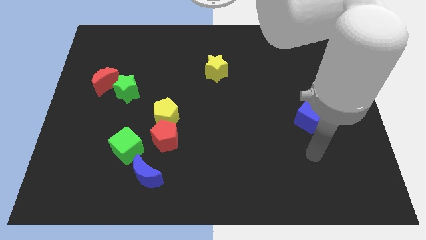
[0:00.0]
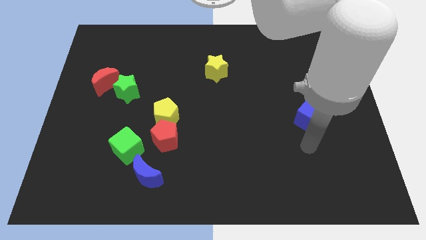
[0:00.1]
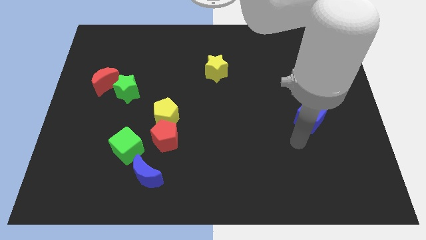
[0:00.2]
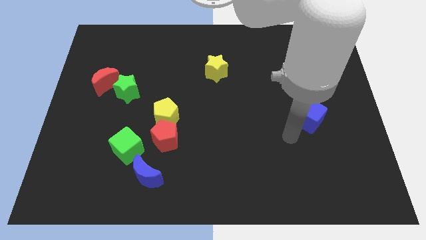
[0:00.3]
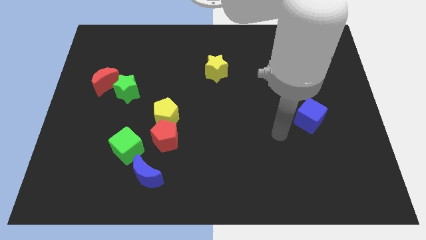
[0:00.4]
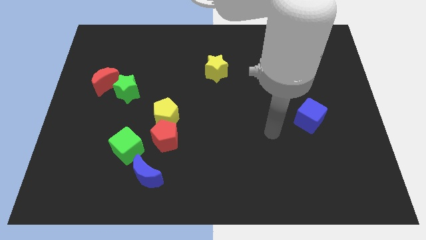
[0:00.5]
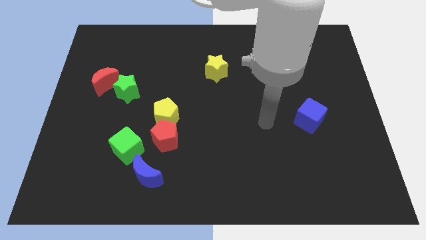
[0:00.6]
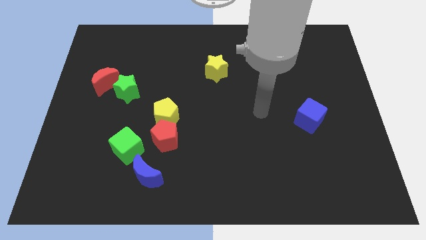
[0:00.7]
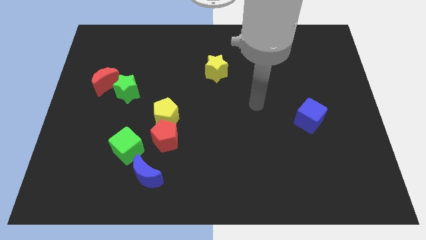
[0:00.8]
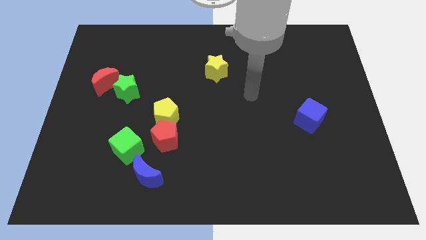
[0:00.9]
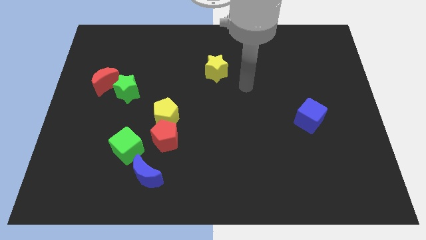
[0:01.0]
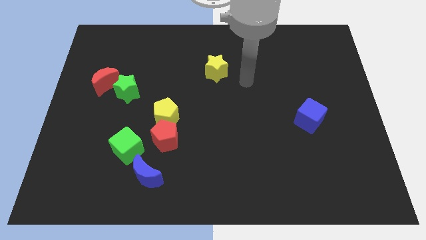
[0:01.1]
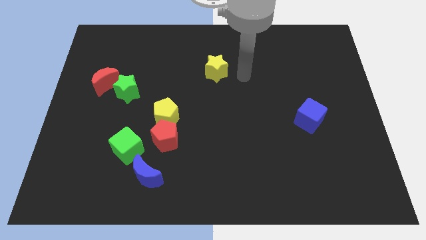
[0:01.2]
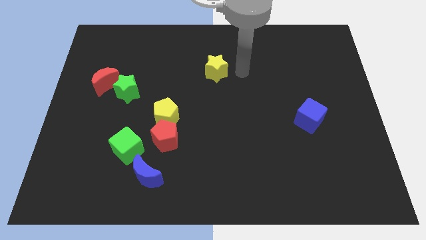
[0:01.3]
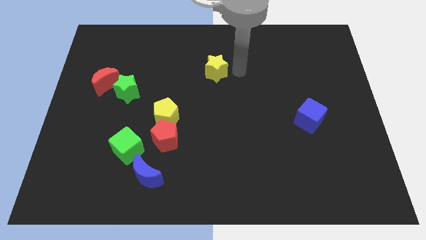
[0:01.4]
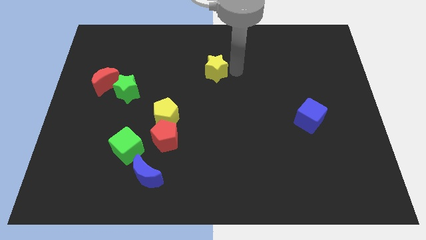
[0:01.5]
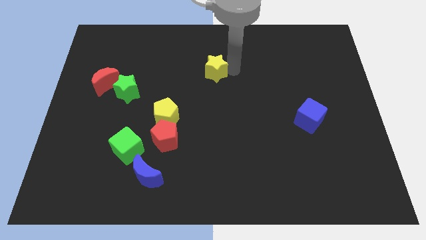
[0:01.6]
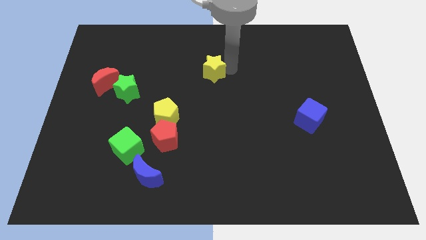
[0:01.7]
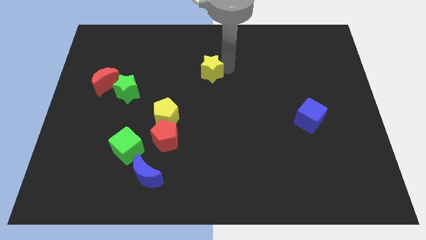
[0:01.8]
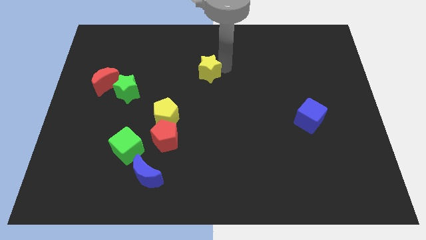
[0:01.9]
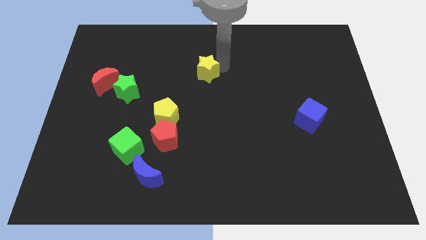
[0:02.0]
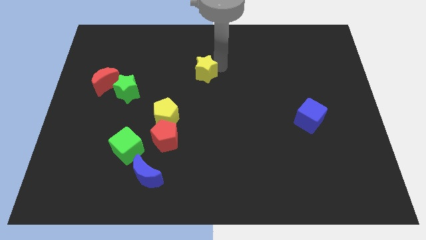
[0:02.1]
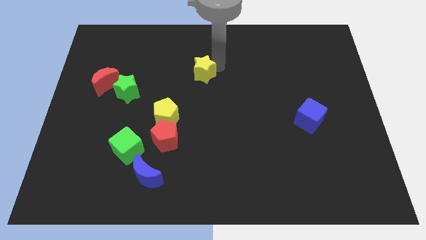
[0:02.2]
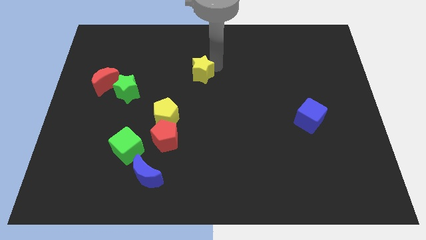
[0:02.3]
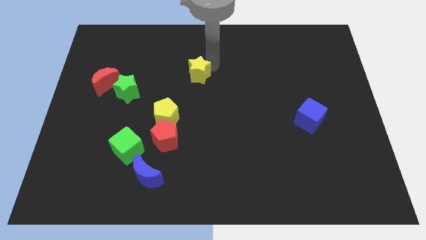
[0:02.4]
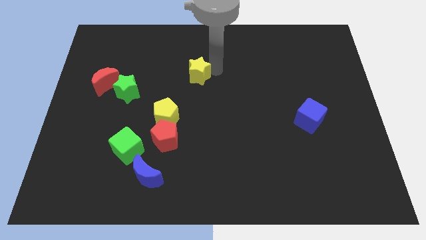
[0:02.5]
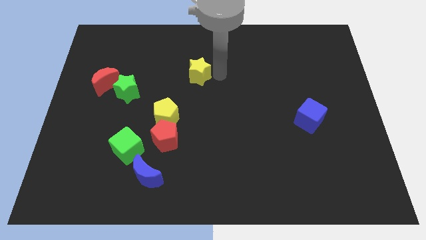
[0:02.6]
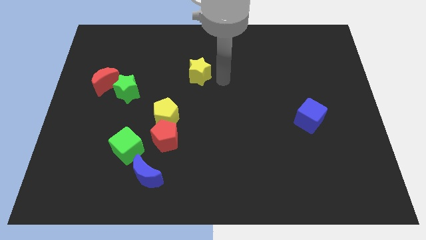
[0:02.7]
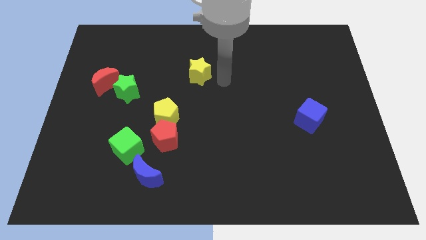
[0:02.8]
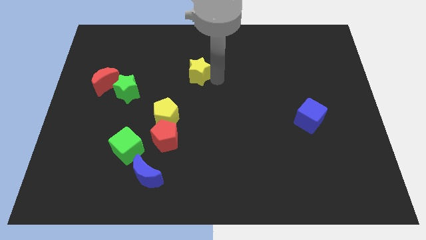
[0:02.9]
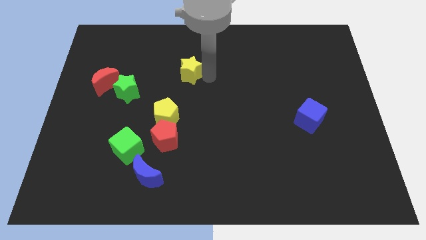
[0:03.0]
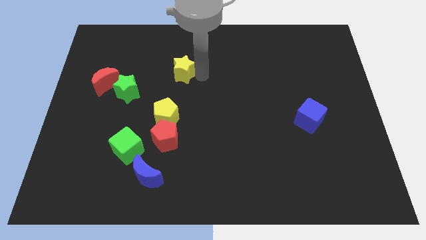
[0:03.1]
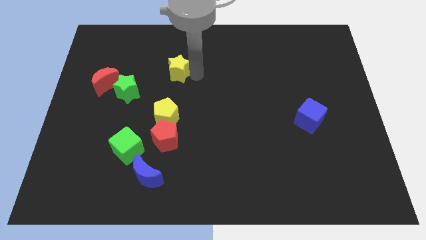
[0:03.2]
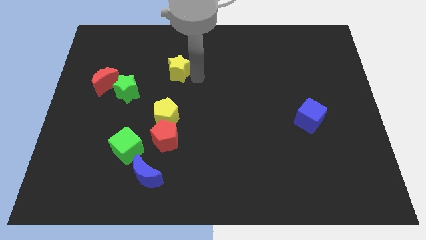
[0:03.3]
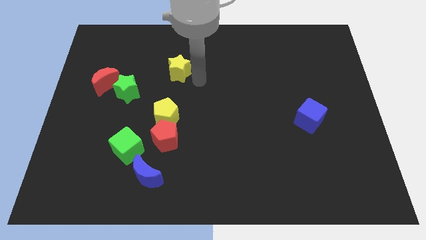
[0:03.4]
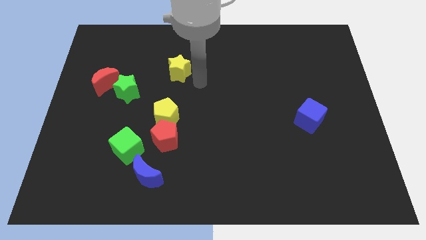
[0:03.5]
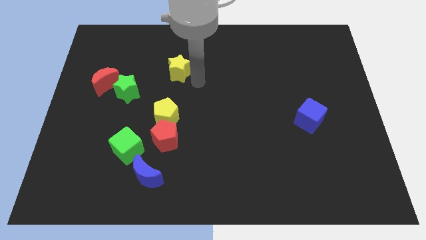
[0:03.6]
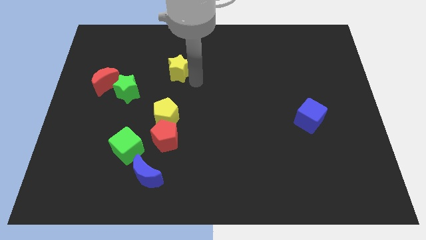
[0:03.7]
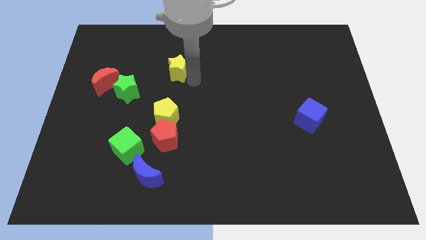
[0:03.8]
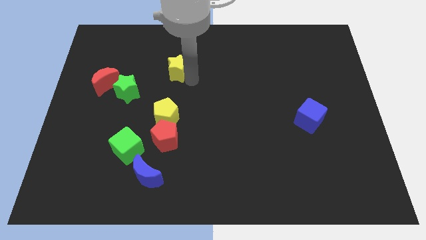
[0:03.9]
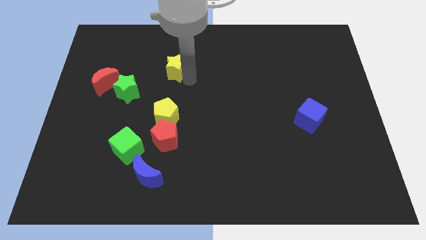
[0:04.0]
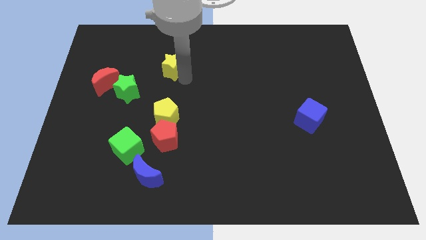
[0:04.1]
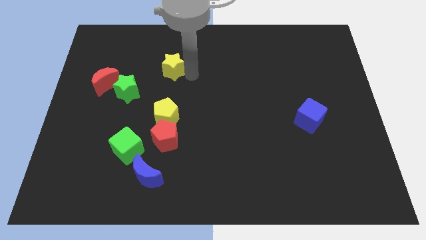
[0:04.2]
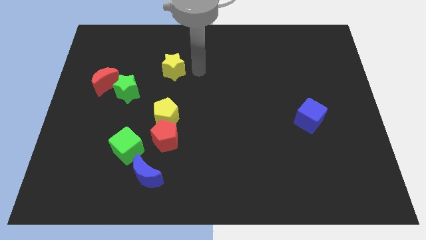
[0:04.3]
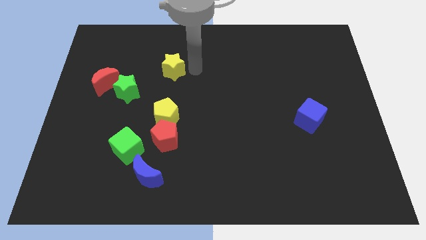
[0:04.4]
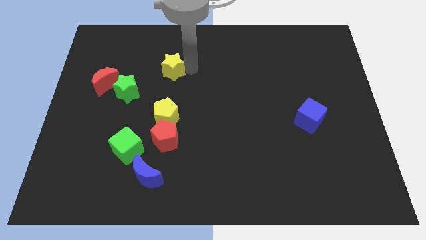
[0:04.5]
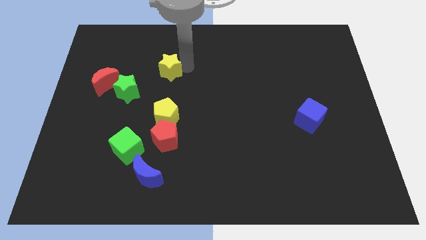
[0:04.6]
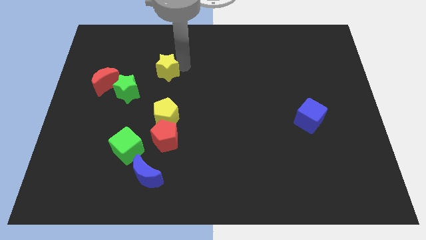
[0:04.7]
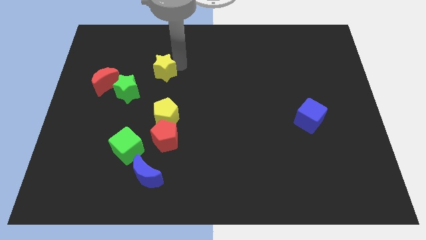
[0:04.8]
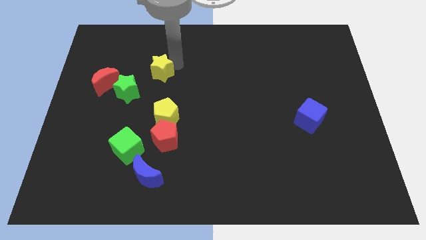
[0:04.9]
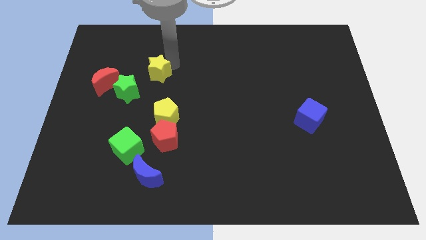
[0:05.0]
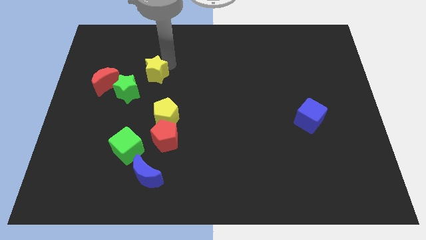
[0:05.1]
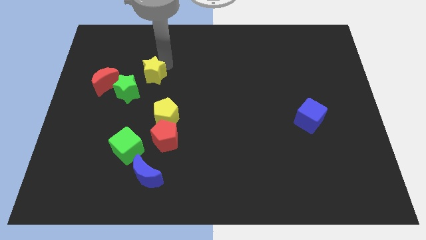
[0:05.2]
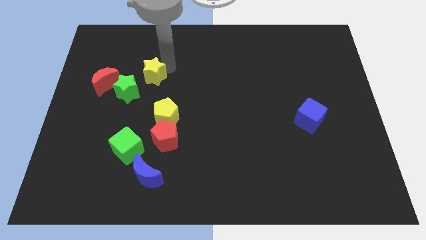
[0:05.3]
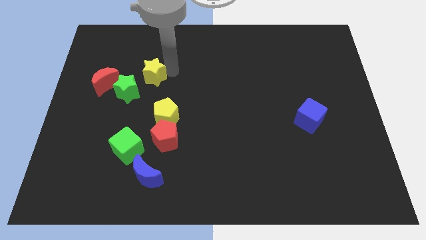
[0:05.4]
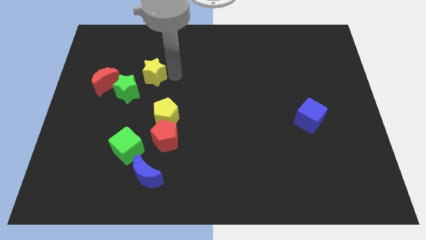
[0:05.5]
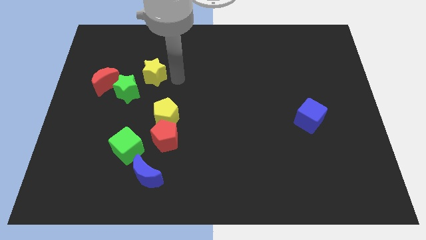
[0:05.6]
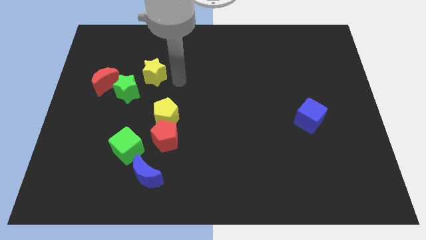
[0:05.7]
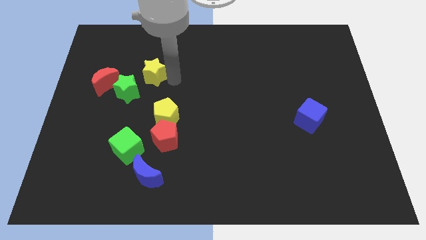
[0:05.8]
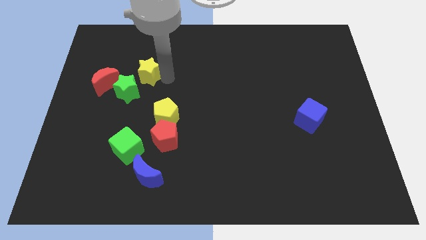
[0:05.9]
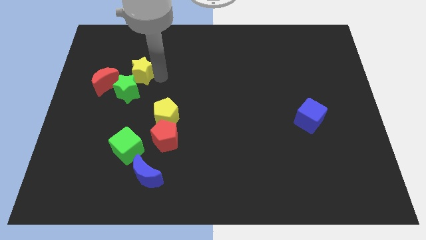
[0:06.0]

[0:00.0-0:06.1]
put the yellow star to the top right side of the red moon

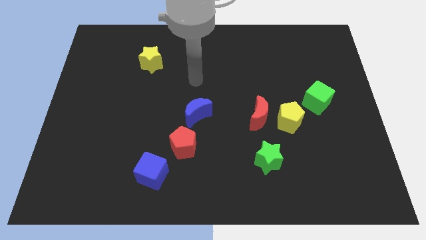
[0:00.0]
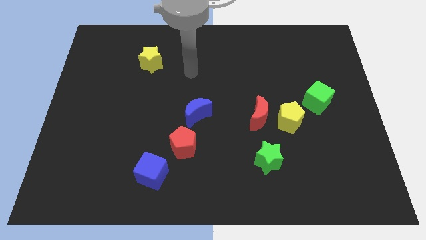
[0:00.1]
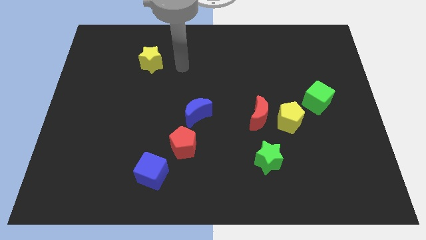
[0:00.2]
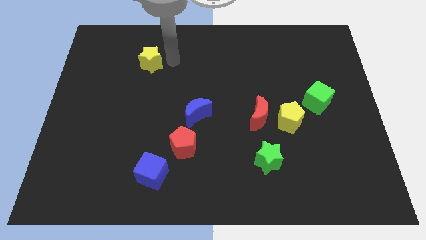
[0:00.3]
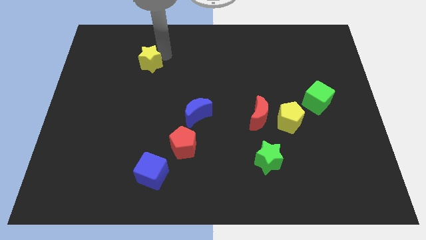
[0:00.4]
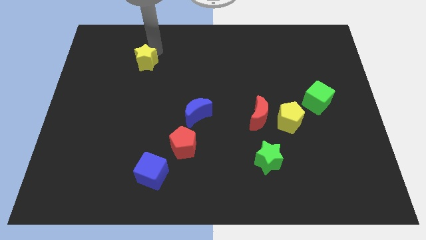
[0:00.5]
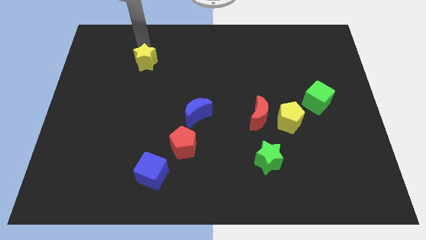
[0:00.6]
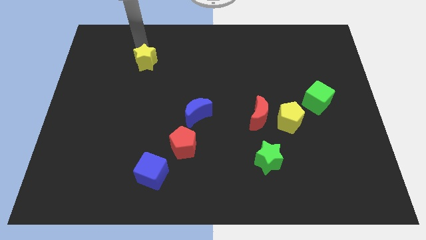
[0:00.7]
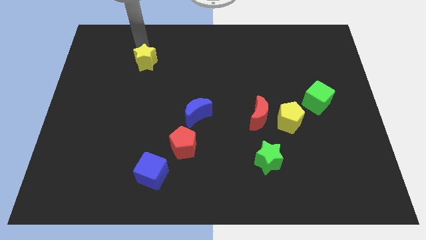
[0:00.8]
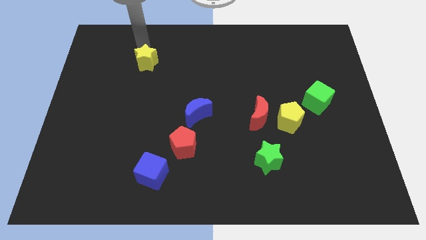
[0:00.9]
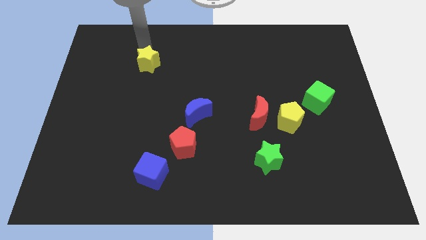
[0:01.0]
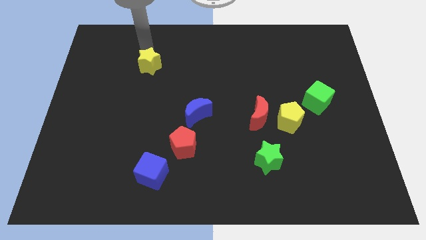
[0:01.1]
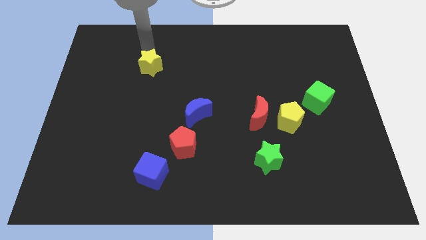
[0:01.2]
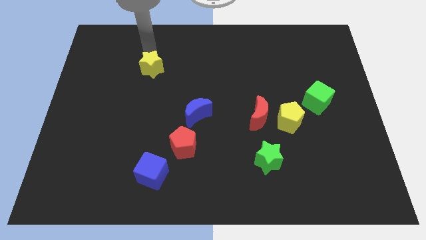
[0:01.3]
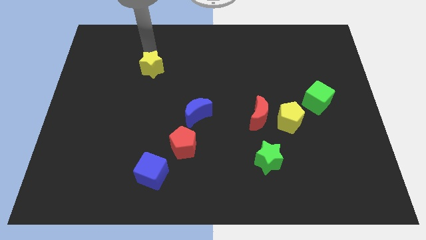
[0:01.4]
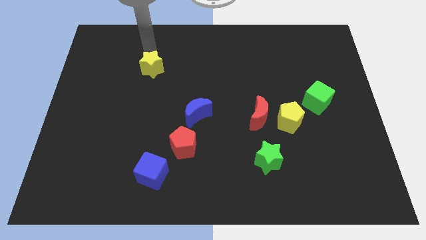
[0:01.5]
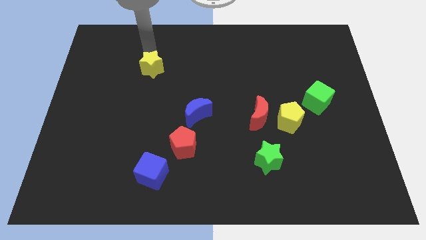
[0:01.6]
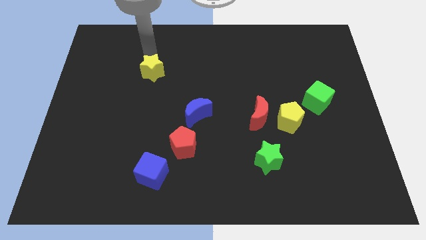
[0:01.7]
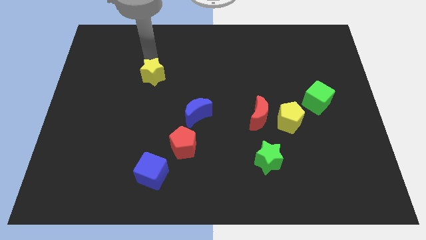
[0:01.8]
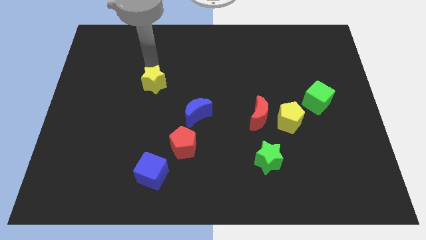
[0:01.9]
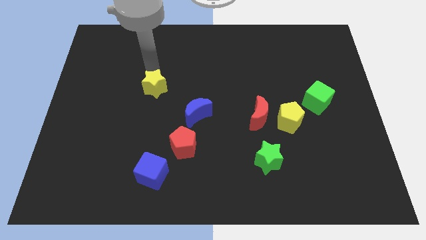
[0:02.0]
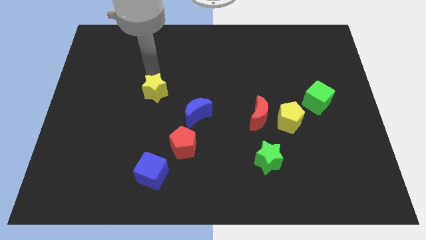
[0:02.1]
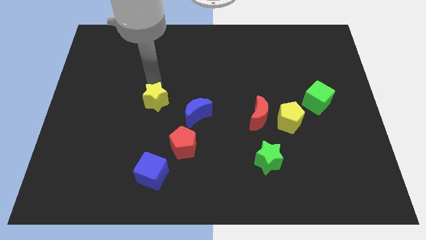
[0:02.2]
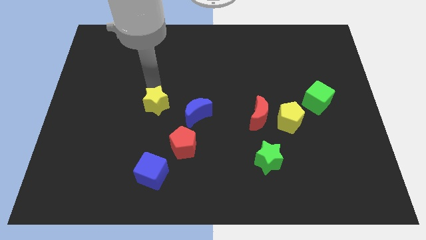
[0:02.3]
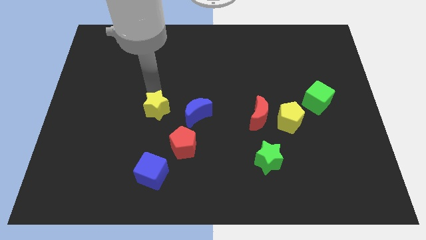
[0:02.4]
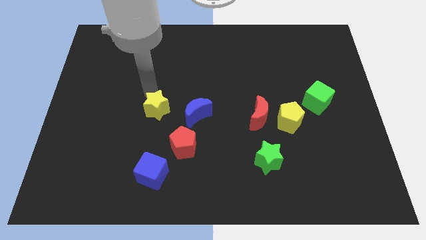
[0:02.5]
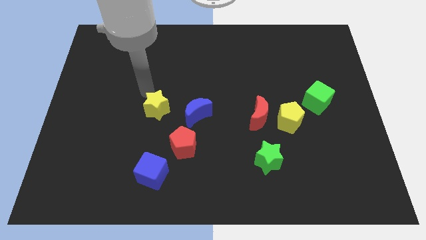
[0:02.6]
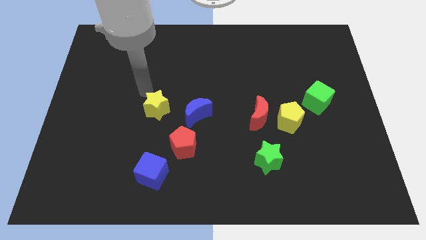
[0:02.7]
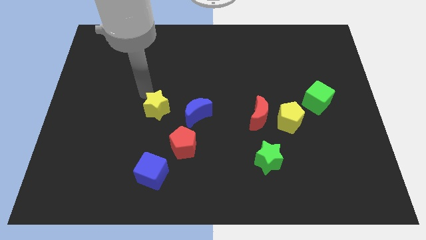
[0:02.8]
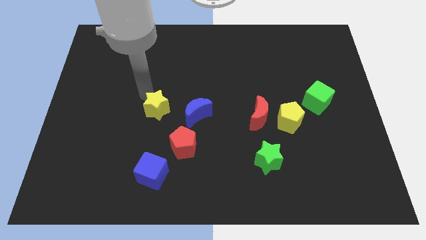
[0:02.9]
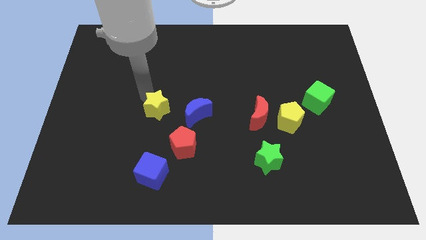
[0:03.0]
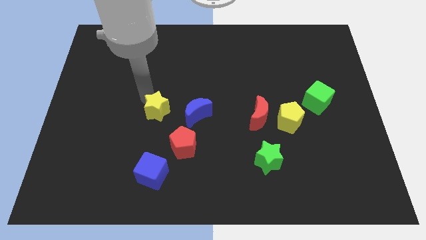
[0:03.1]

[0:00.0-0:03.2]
put the yellow star to the top side of the blue cube
